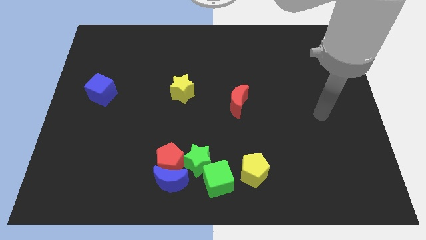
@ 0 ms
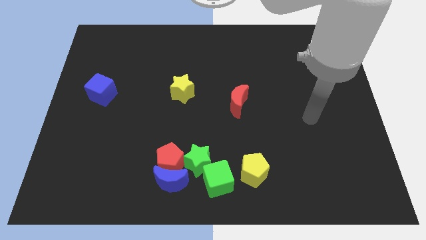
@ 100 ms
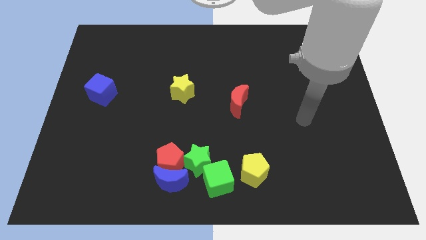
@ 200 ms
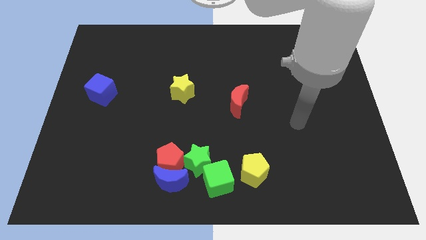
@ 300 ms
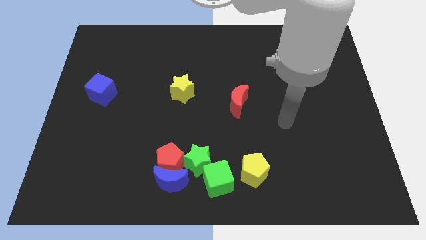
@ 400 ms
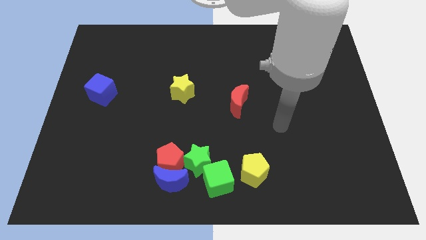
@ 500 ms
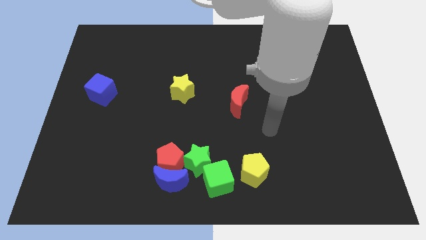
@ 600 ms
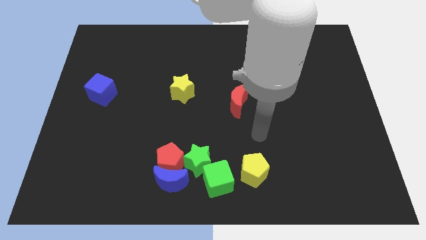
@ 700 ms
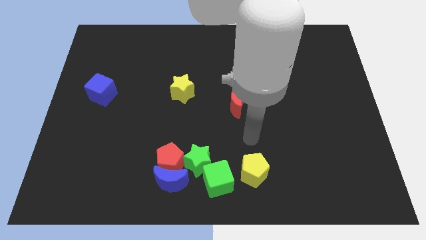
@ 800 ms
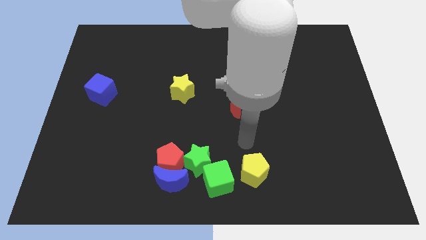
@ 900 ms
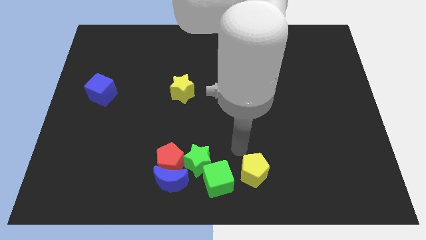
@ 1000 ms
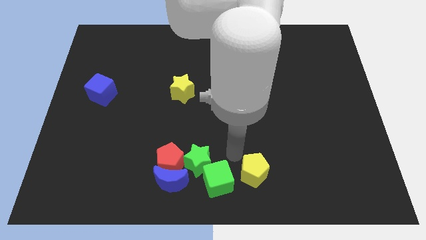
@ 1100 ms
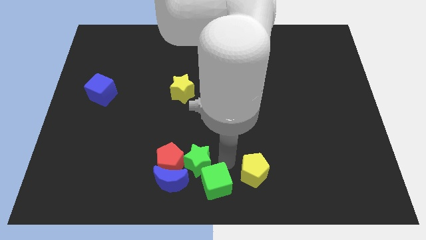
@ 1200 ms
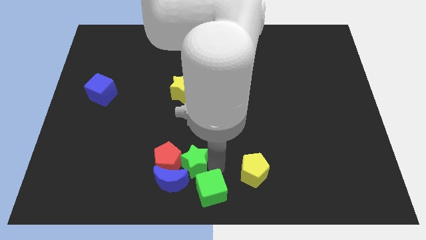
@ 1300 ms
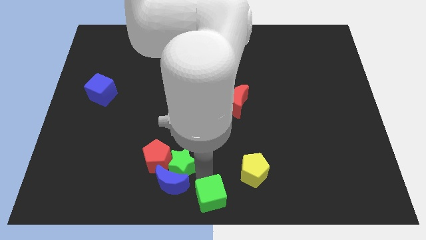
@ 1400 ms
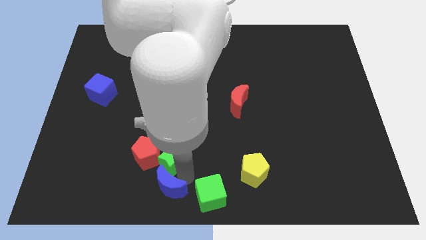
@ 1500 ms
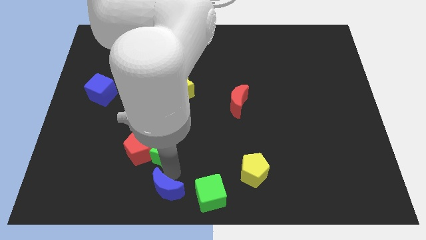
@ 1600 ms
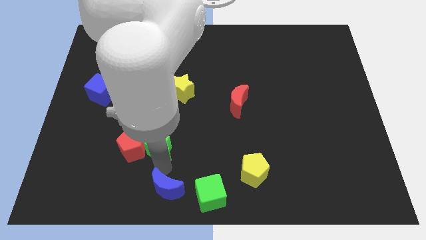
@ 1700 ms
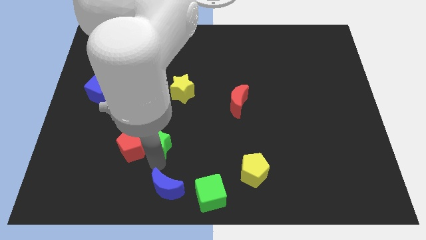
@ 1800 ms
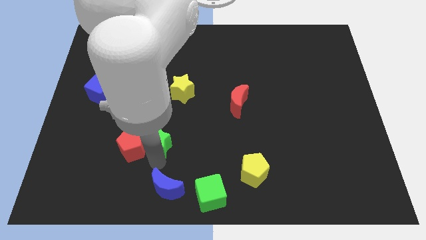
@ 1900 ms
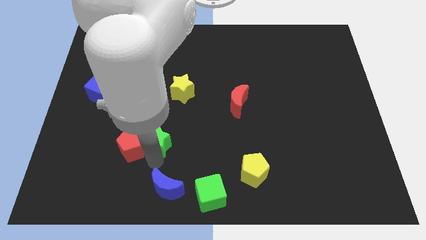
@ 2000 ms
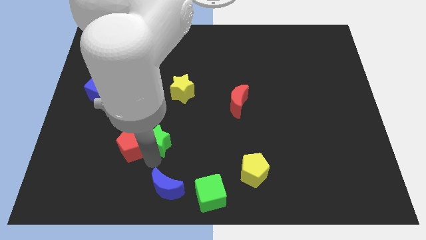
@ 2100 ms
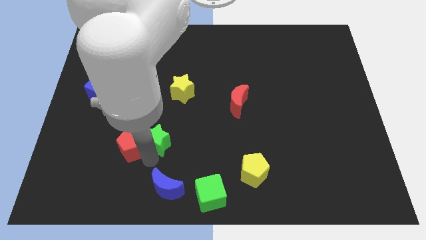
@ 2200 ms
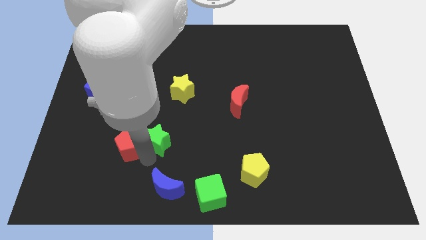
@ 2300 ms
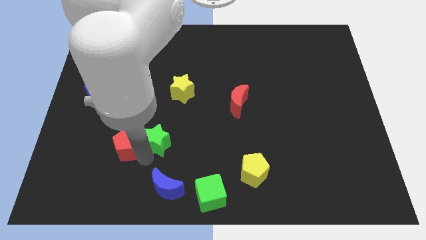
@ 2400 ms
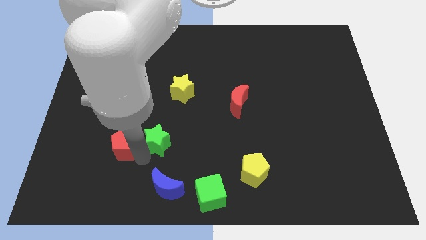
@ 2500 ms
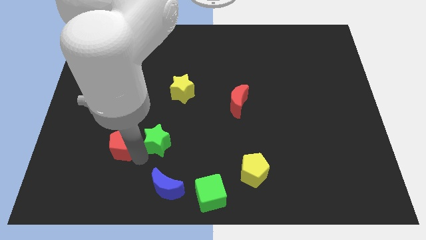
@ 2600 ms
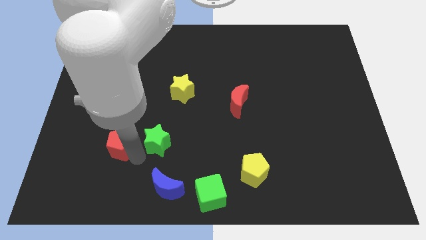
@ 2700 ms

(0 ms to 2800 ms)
move the red pentagon away from the blue moon and green star

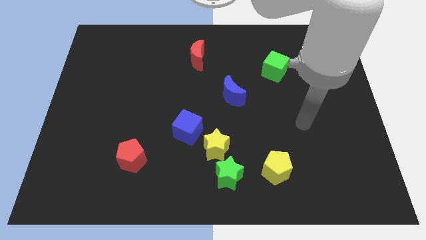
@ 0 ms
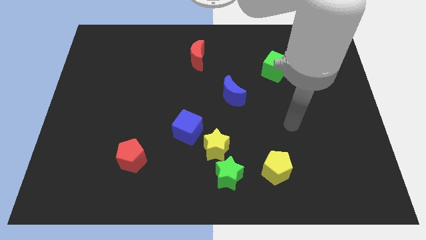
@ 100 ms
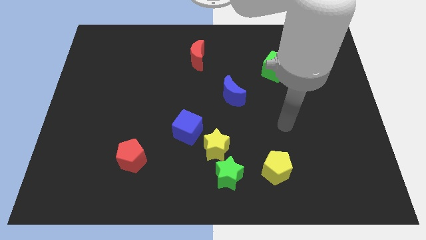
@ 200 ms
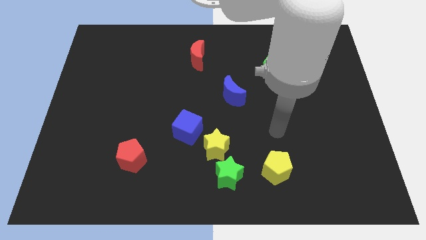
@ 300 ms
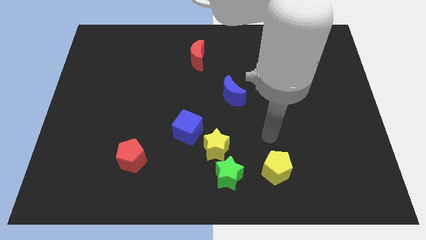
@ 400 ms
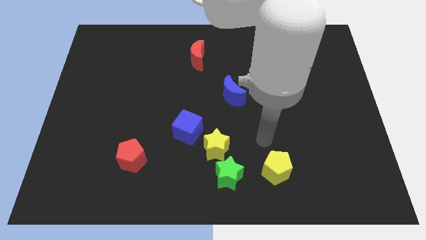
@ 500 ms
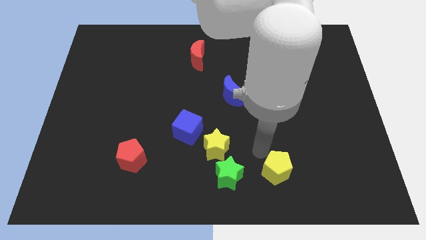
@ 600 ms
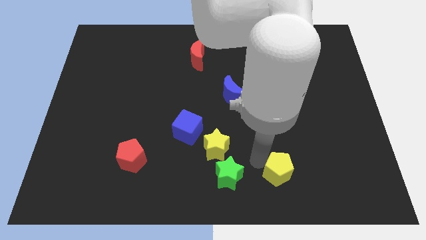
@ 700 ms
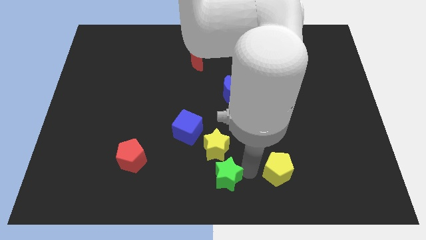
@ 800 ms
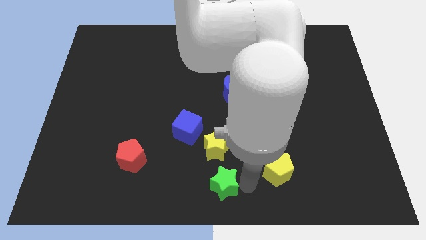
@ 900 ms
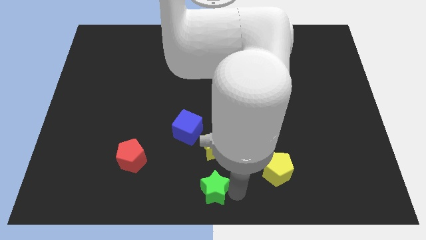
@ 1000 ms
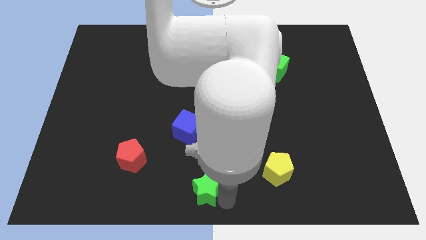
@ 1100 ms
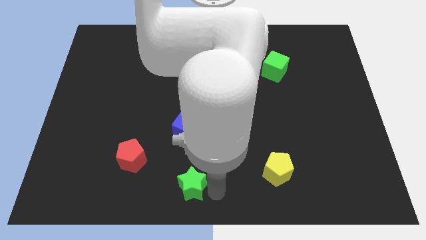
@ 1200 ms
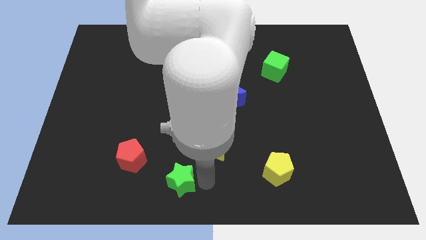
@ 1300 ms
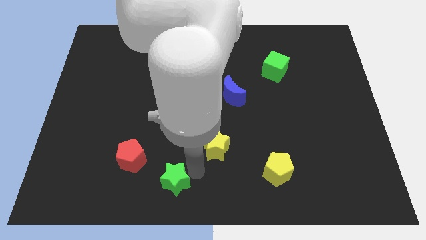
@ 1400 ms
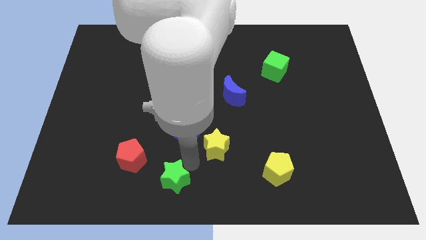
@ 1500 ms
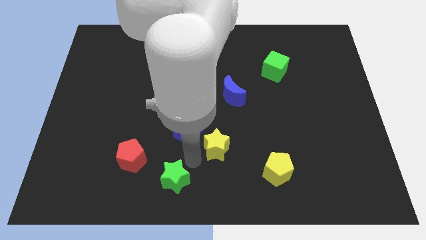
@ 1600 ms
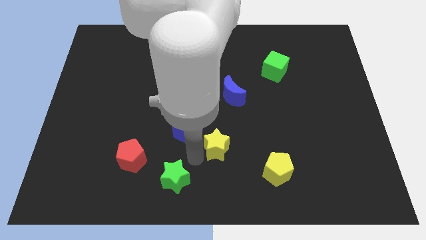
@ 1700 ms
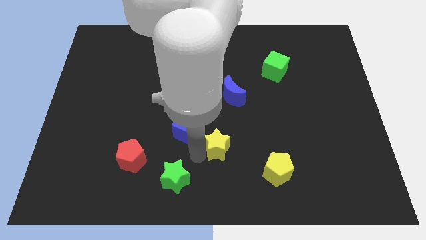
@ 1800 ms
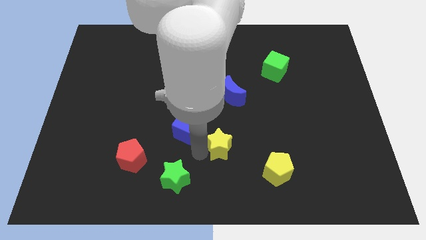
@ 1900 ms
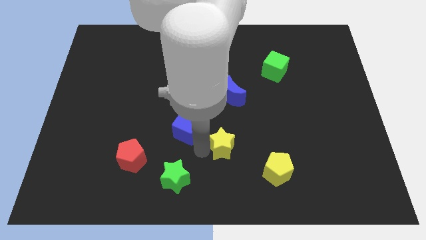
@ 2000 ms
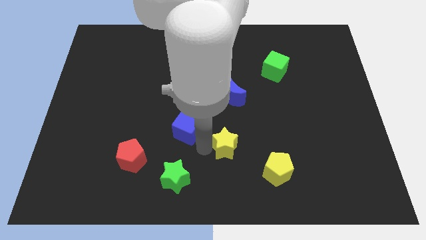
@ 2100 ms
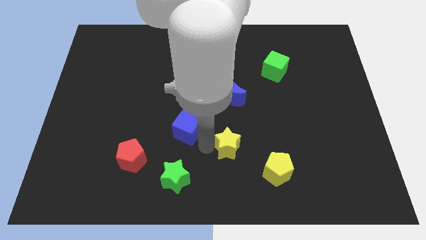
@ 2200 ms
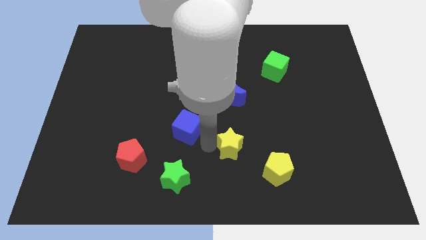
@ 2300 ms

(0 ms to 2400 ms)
pull the yellow star apart from the green star and blue cube

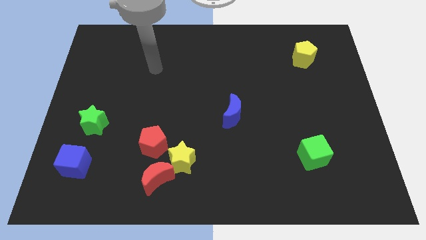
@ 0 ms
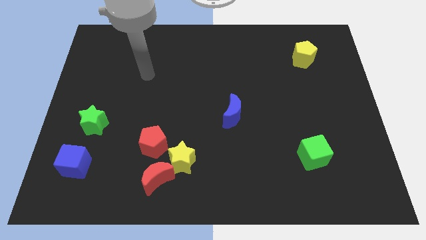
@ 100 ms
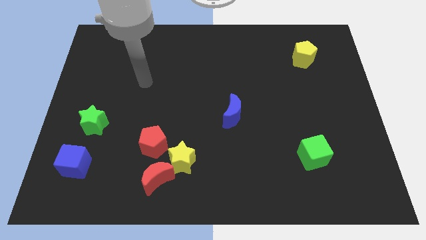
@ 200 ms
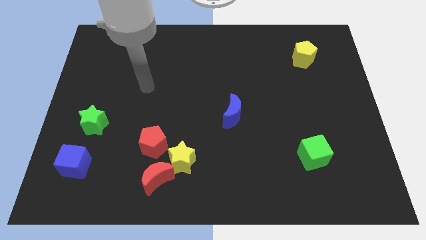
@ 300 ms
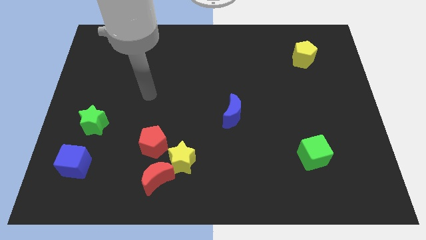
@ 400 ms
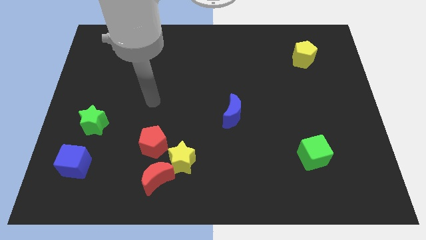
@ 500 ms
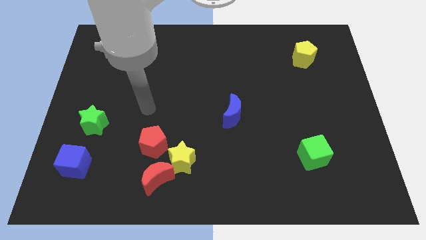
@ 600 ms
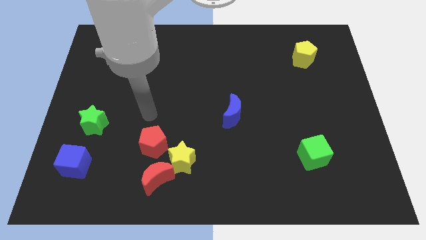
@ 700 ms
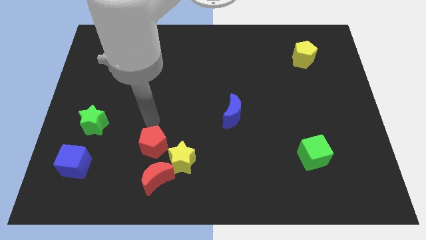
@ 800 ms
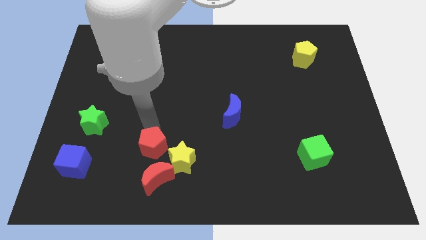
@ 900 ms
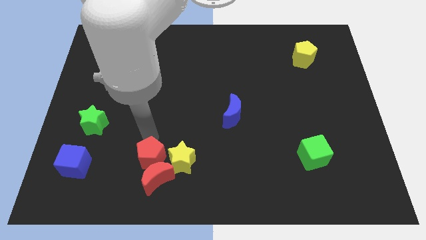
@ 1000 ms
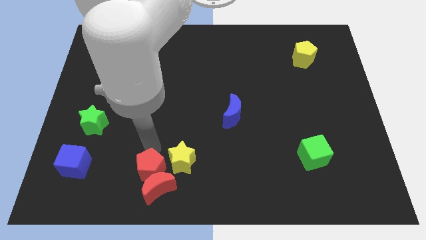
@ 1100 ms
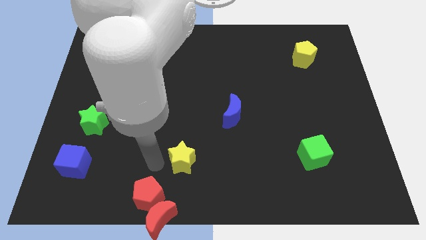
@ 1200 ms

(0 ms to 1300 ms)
pull the yellow star apart from the red moon and red pentagon

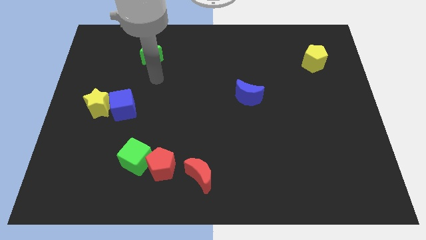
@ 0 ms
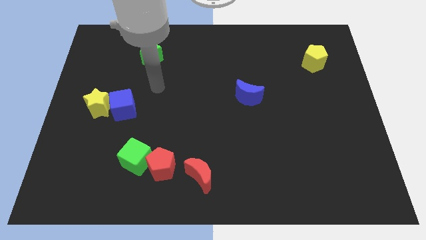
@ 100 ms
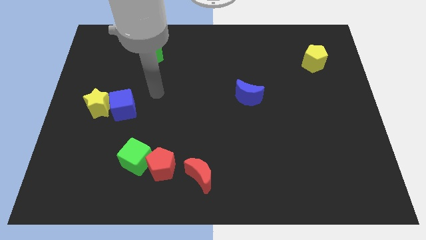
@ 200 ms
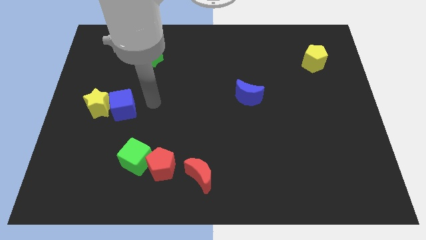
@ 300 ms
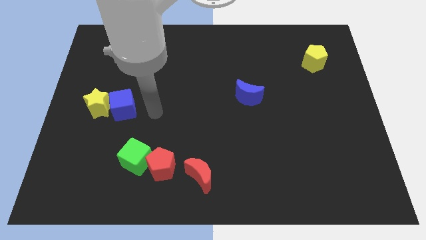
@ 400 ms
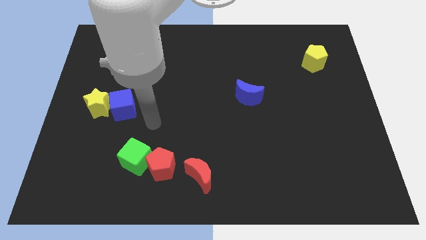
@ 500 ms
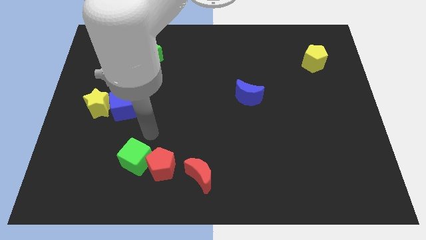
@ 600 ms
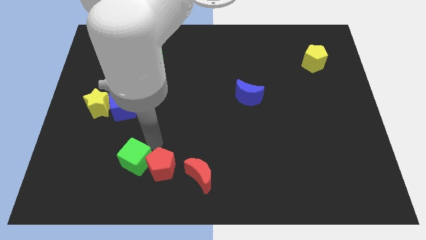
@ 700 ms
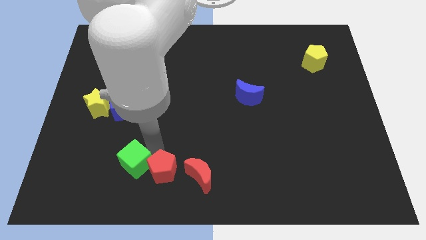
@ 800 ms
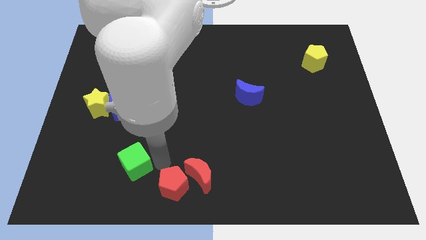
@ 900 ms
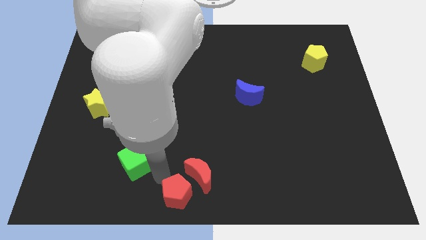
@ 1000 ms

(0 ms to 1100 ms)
separate the green cube from the red pentagon

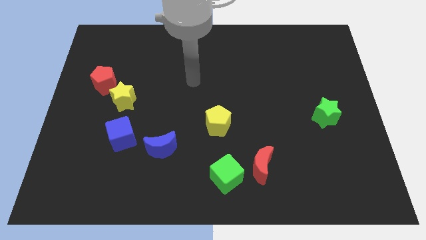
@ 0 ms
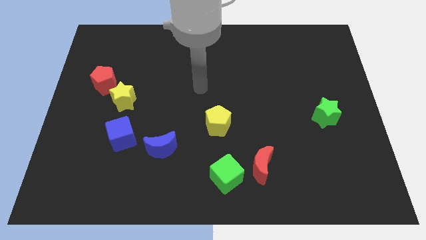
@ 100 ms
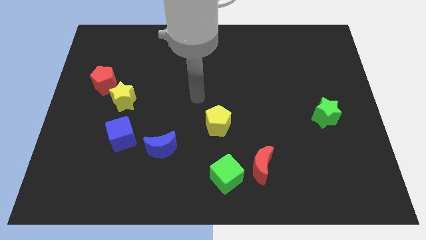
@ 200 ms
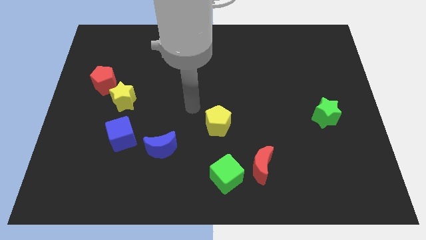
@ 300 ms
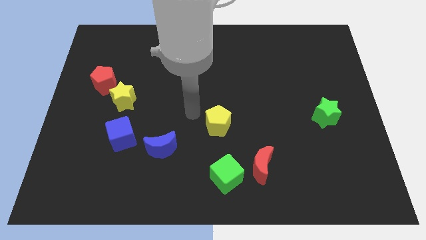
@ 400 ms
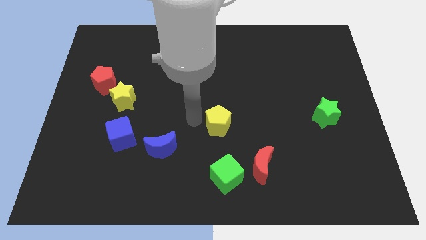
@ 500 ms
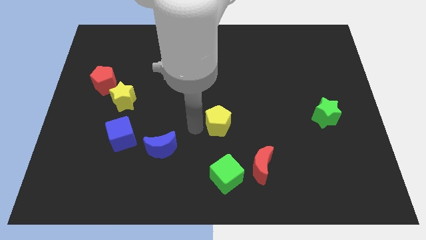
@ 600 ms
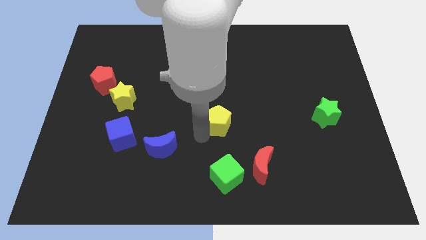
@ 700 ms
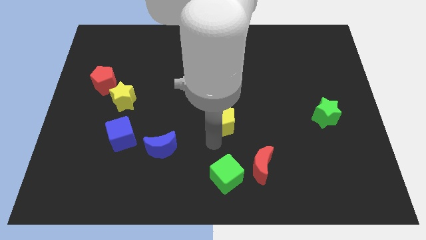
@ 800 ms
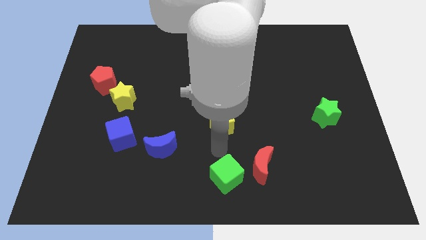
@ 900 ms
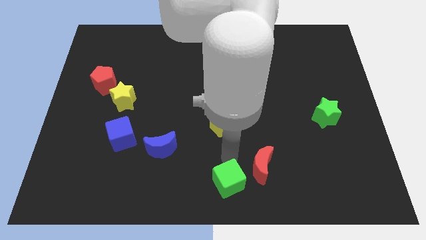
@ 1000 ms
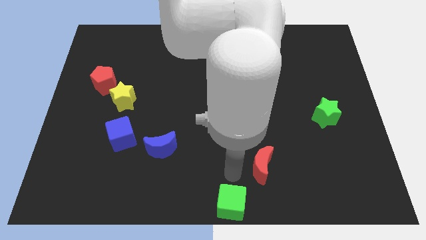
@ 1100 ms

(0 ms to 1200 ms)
separate the red moon from the green cube

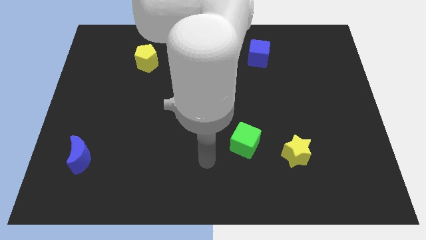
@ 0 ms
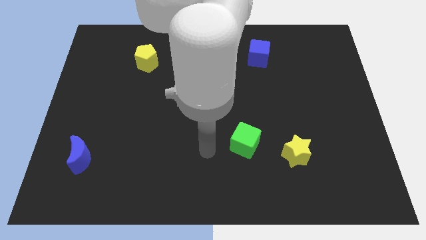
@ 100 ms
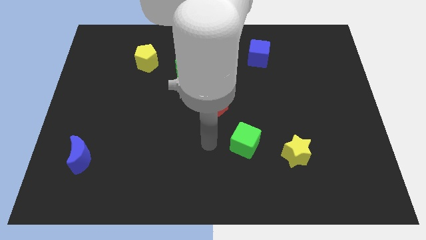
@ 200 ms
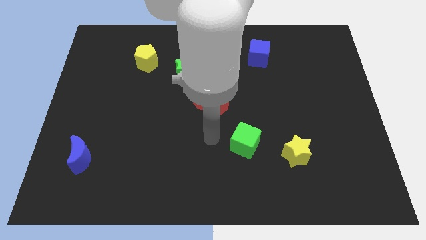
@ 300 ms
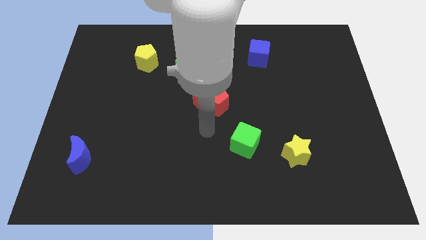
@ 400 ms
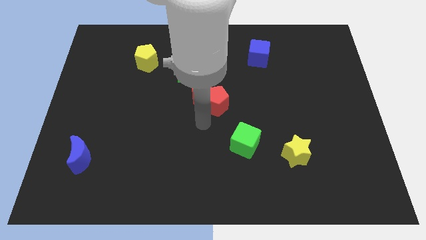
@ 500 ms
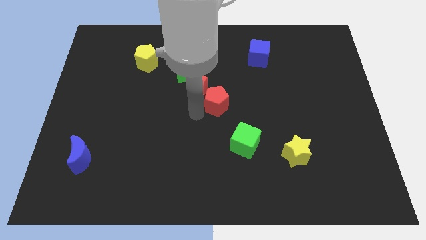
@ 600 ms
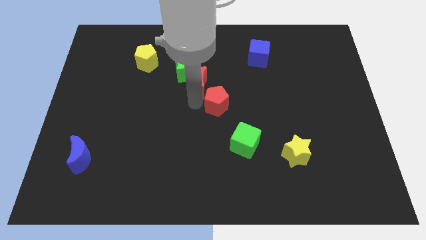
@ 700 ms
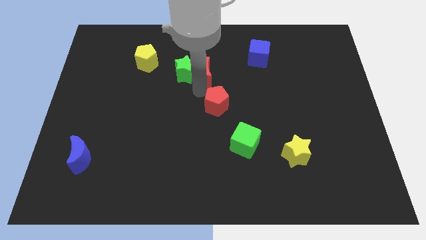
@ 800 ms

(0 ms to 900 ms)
pull the red pentagon apart from the red moon
